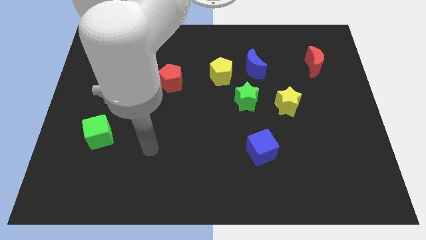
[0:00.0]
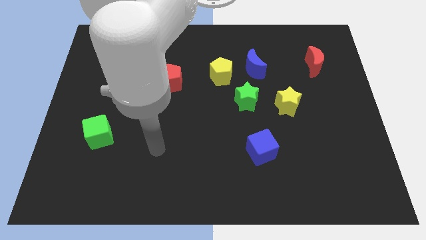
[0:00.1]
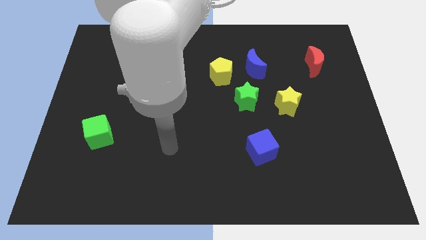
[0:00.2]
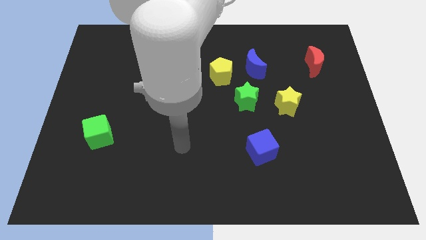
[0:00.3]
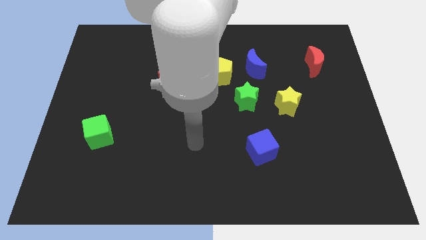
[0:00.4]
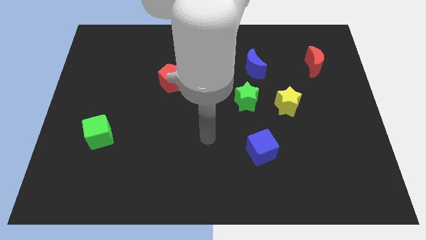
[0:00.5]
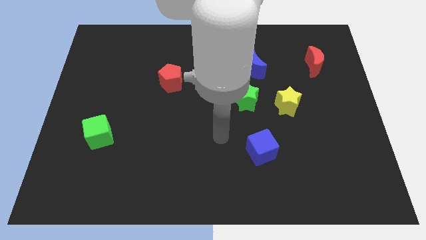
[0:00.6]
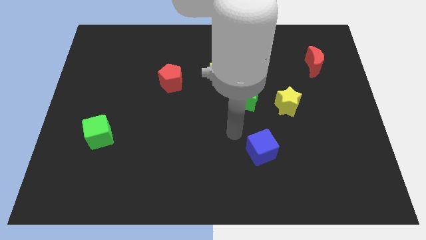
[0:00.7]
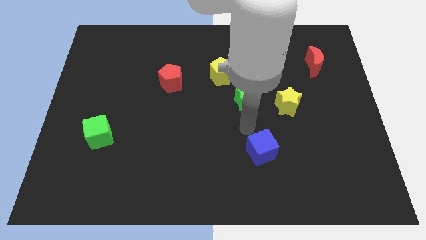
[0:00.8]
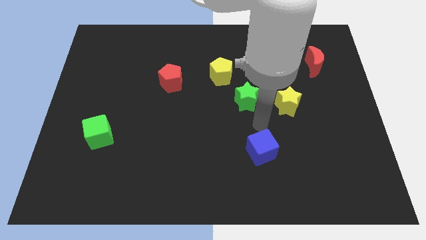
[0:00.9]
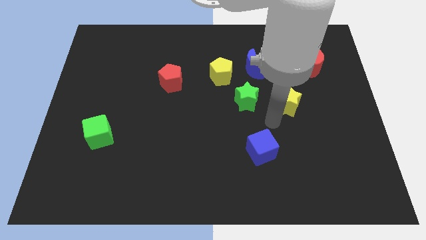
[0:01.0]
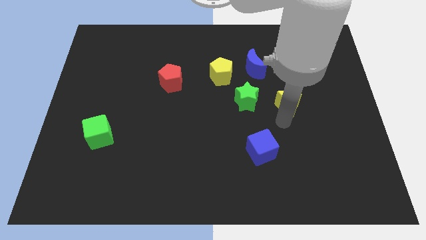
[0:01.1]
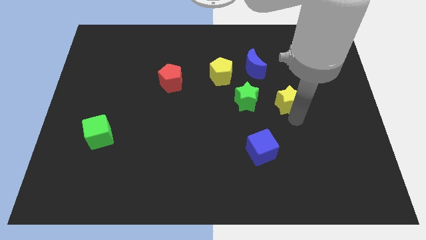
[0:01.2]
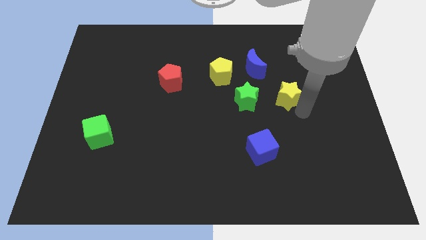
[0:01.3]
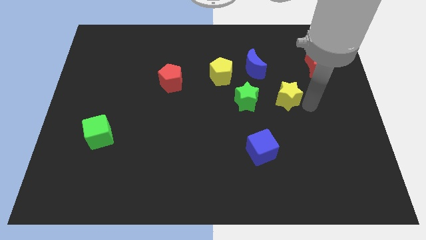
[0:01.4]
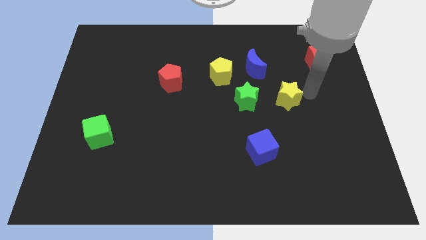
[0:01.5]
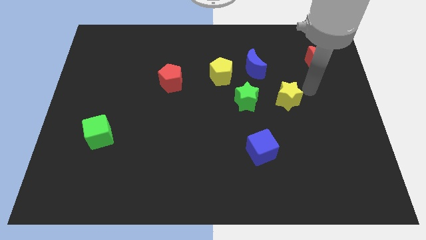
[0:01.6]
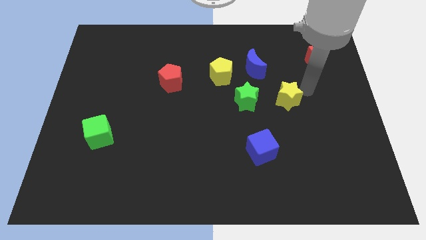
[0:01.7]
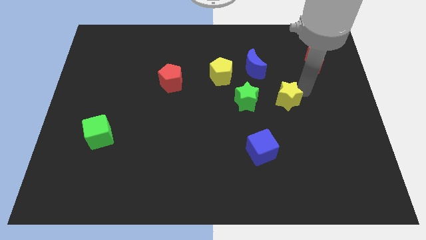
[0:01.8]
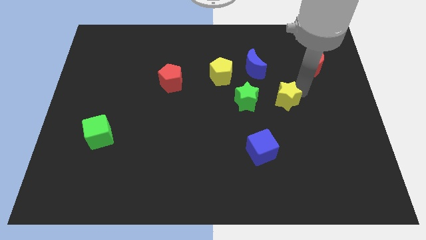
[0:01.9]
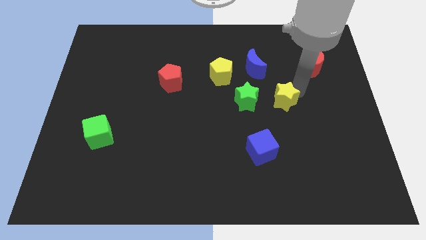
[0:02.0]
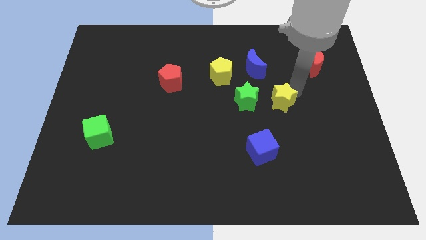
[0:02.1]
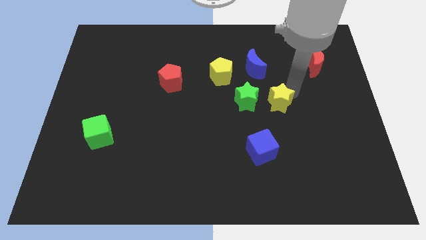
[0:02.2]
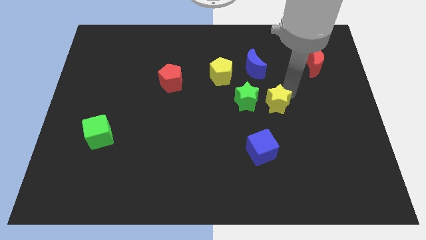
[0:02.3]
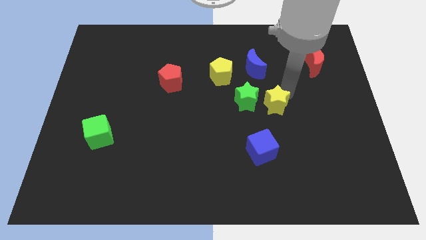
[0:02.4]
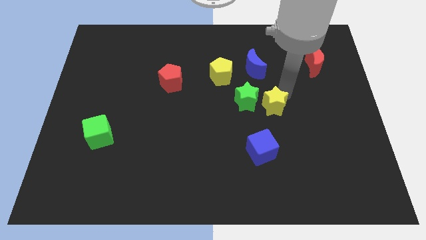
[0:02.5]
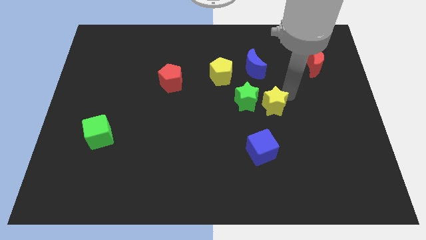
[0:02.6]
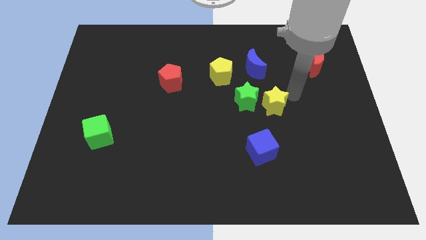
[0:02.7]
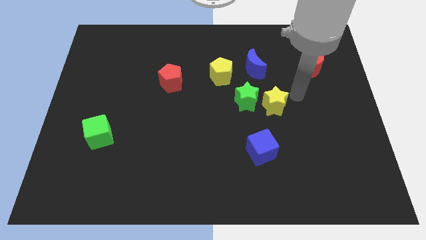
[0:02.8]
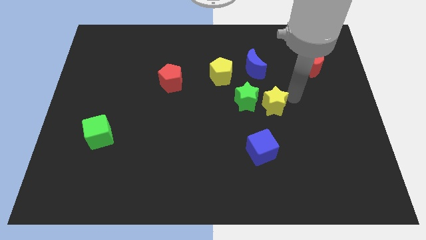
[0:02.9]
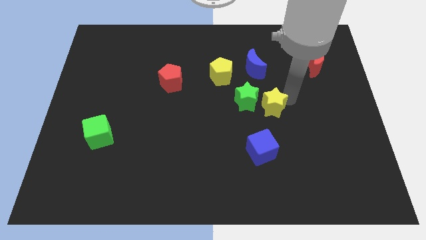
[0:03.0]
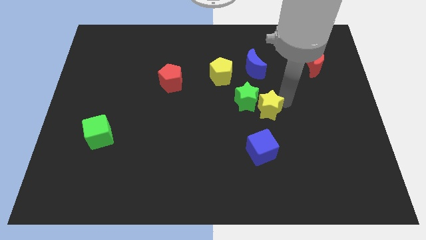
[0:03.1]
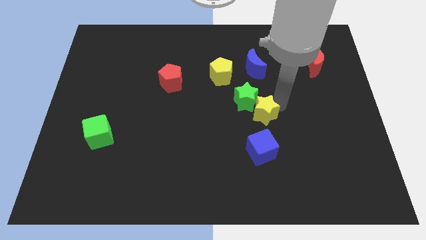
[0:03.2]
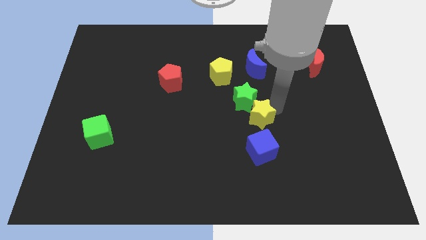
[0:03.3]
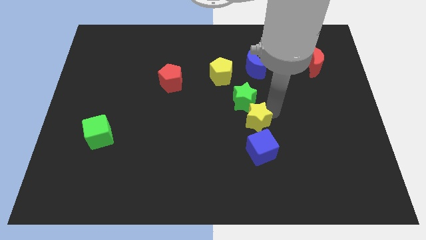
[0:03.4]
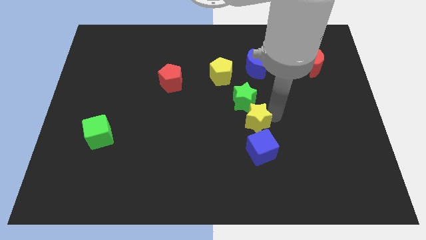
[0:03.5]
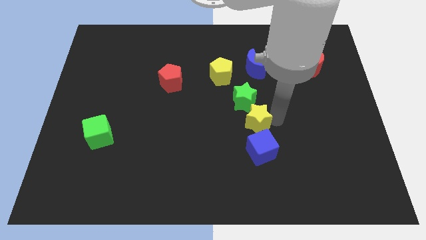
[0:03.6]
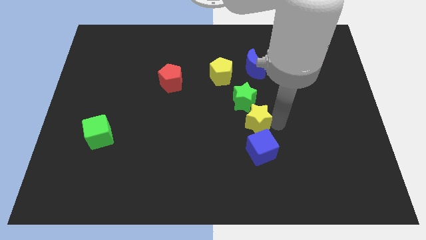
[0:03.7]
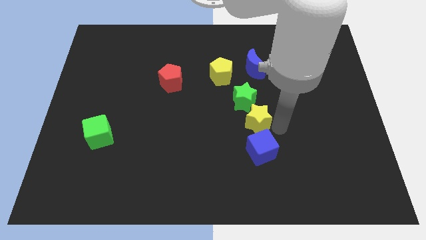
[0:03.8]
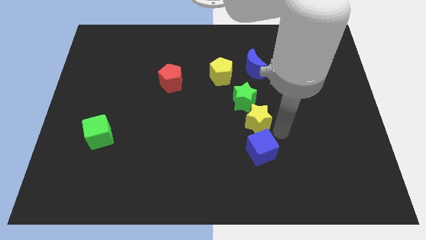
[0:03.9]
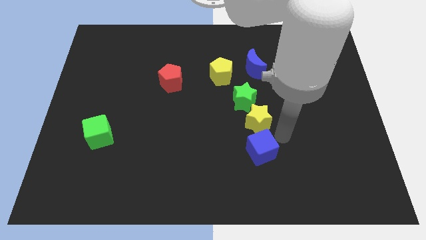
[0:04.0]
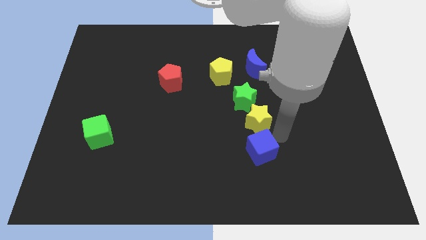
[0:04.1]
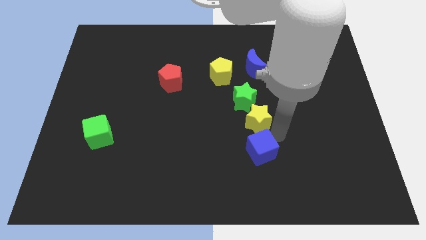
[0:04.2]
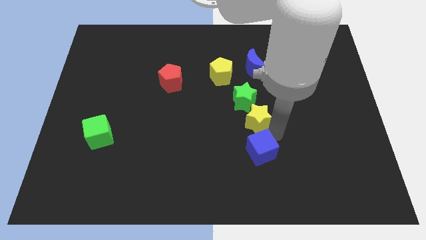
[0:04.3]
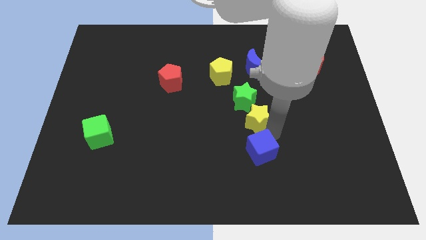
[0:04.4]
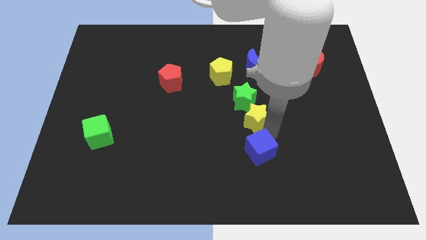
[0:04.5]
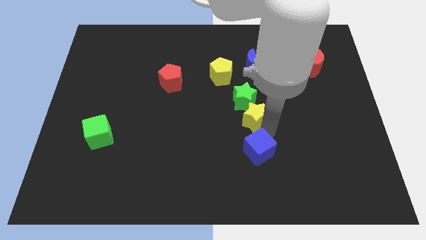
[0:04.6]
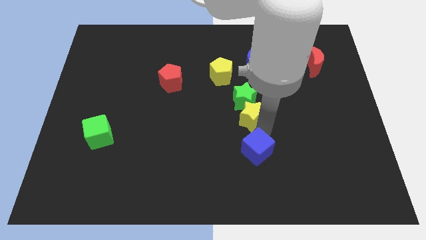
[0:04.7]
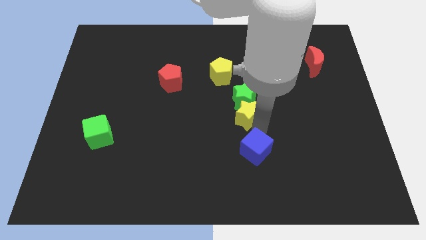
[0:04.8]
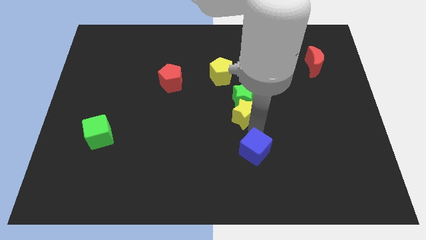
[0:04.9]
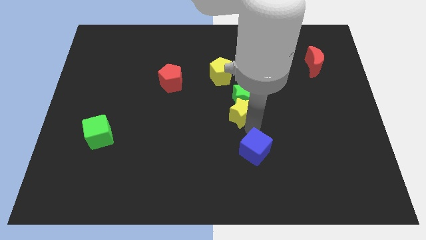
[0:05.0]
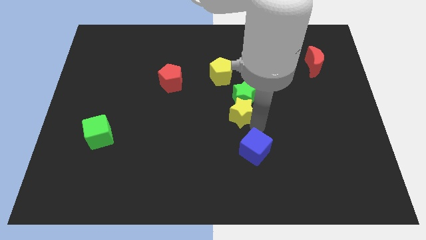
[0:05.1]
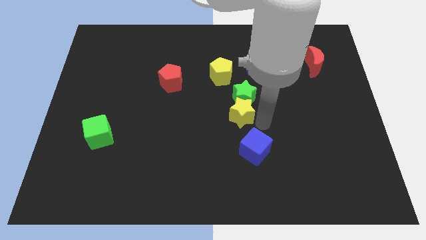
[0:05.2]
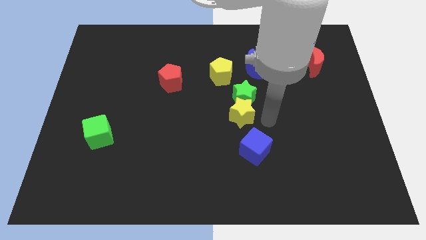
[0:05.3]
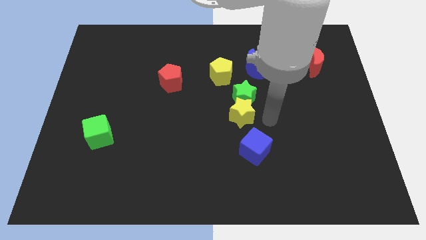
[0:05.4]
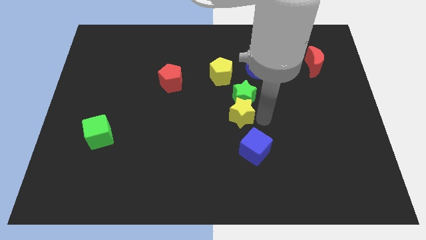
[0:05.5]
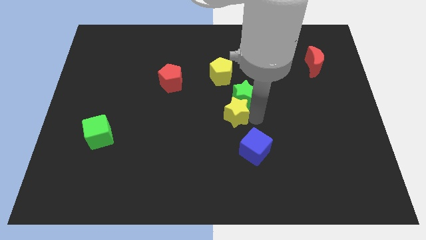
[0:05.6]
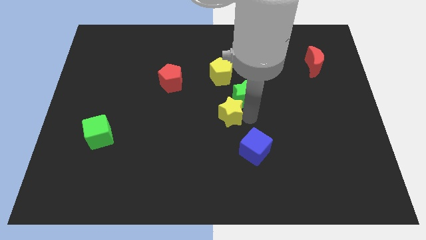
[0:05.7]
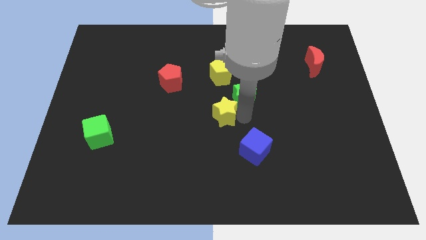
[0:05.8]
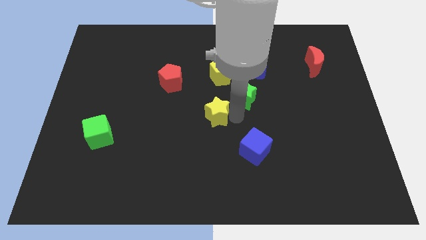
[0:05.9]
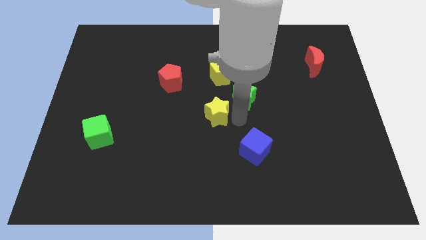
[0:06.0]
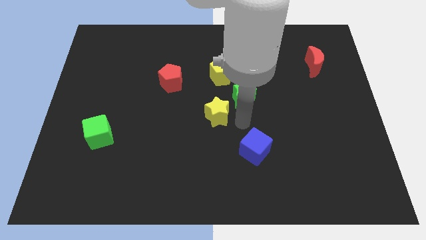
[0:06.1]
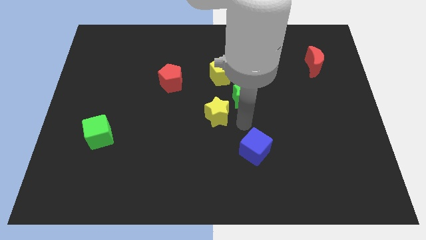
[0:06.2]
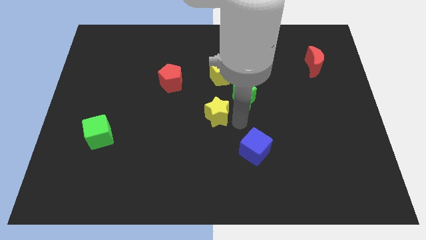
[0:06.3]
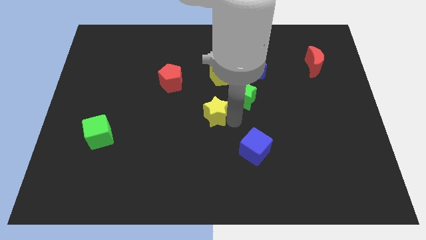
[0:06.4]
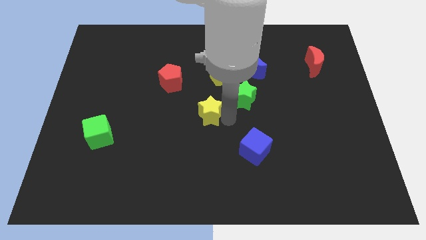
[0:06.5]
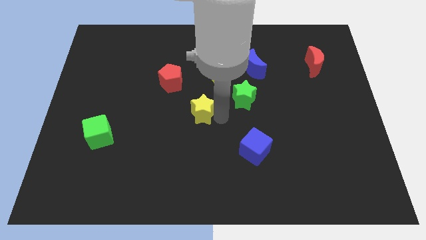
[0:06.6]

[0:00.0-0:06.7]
push the yellow star left

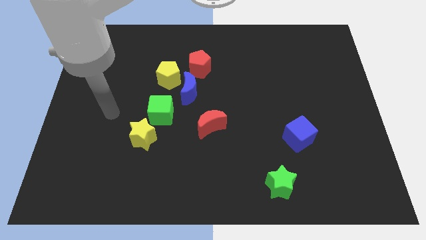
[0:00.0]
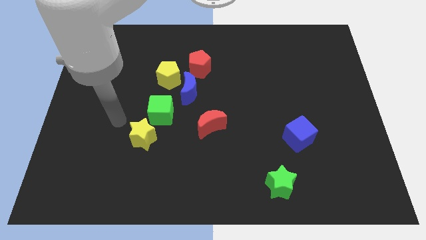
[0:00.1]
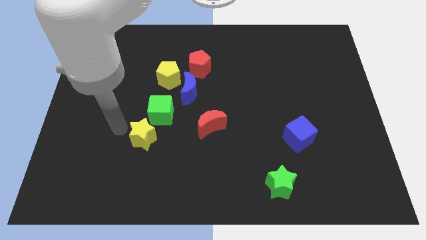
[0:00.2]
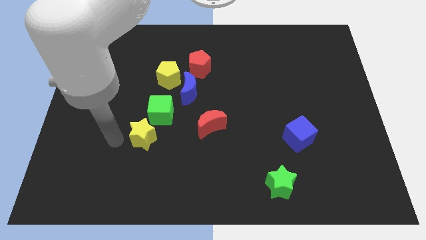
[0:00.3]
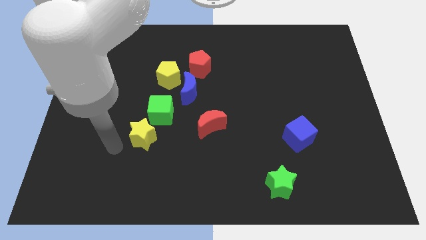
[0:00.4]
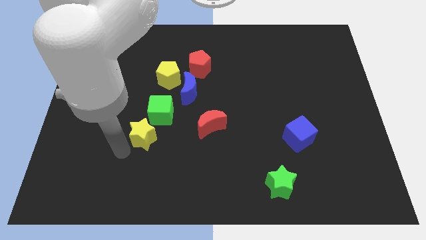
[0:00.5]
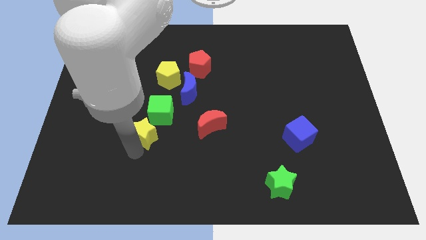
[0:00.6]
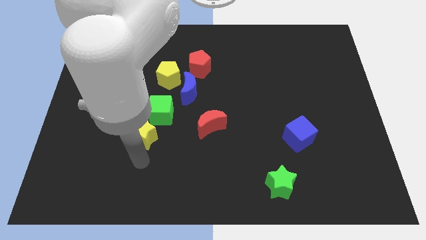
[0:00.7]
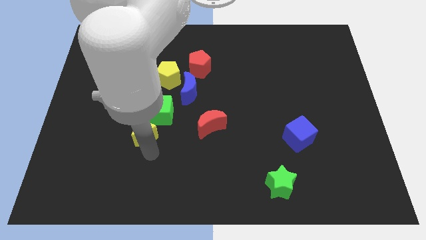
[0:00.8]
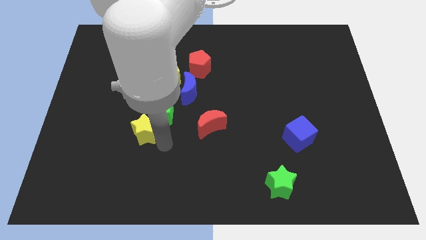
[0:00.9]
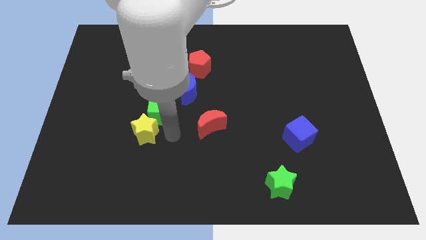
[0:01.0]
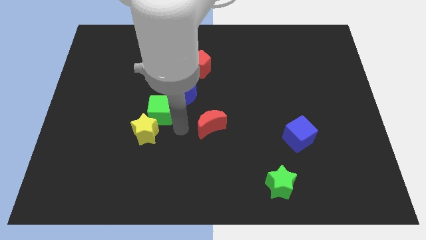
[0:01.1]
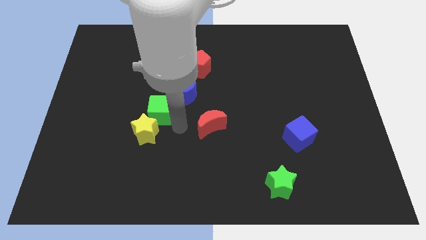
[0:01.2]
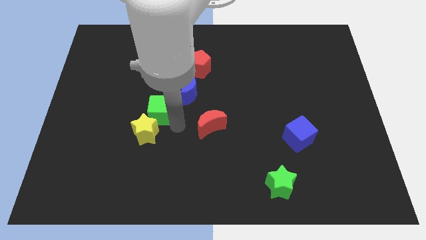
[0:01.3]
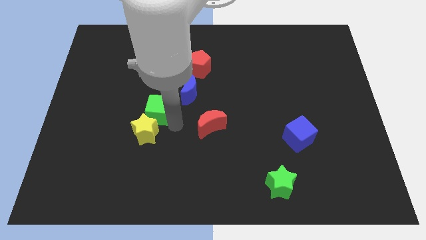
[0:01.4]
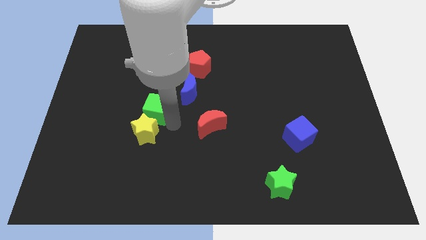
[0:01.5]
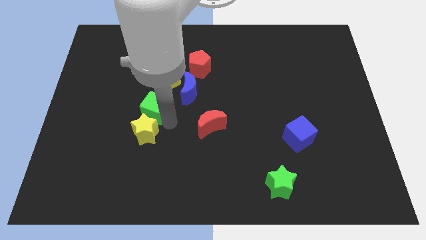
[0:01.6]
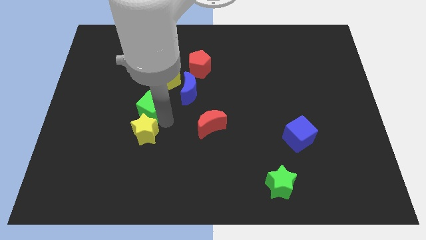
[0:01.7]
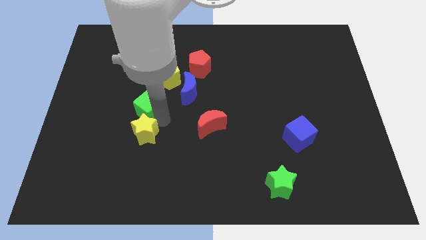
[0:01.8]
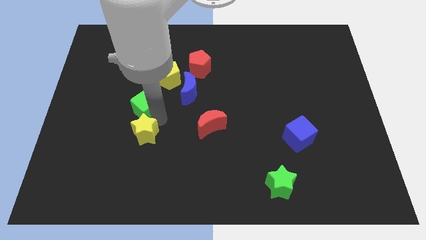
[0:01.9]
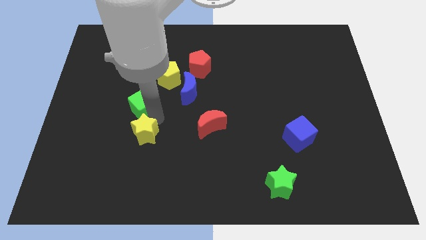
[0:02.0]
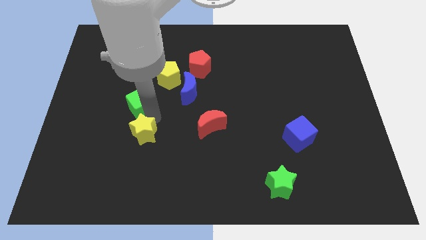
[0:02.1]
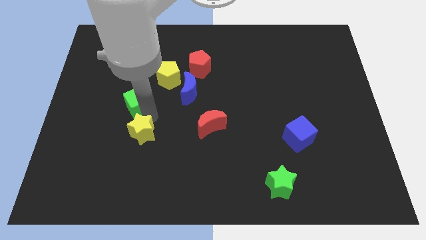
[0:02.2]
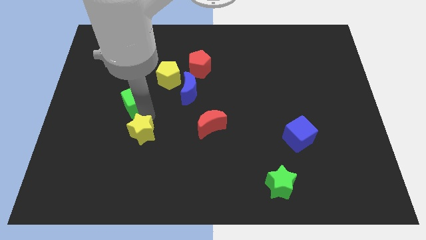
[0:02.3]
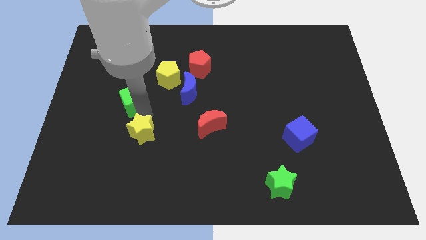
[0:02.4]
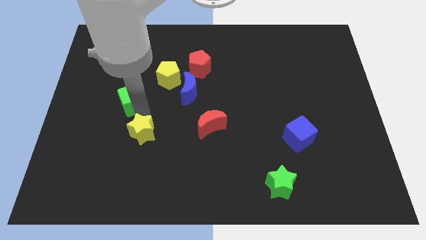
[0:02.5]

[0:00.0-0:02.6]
slide the green cube a little upwards and to the left diagonally
